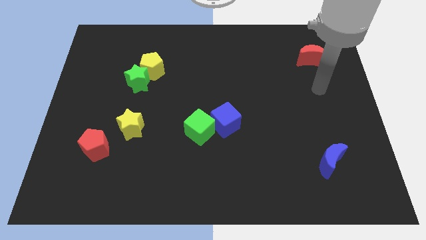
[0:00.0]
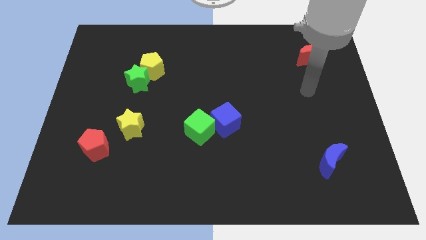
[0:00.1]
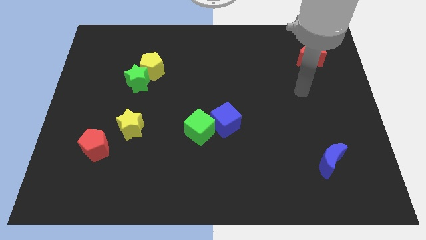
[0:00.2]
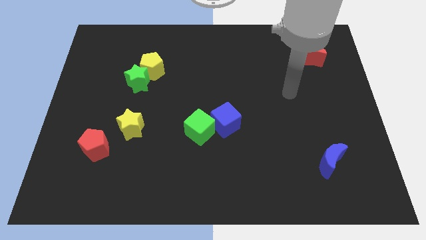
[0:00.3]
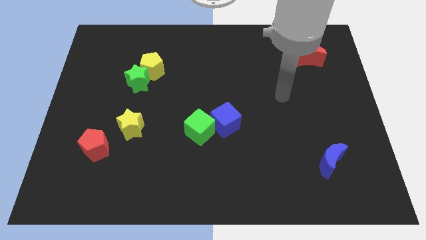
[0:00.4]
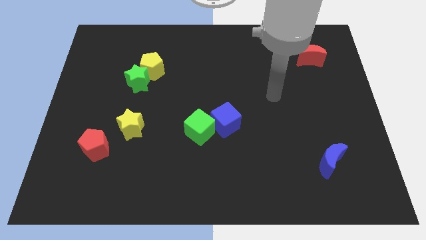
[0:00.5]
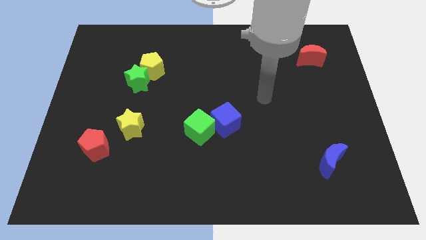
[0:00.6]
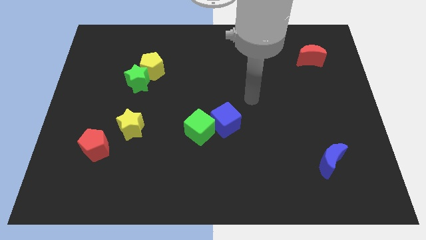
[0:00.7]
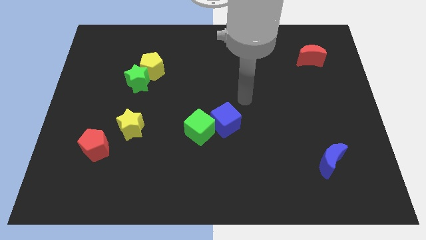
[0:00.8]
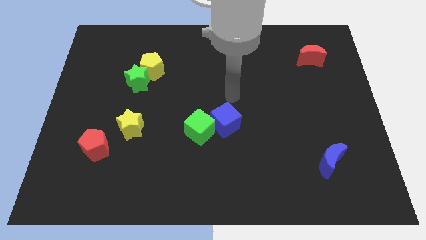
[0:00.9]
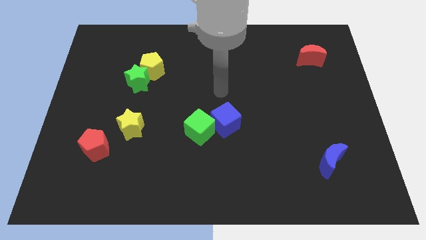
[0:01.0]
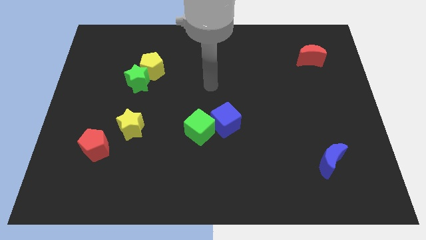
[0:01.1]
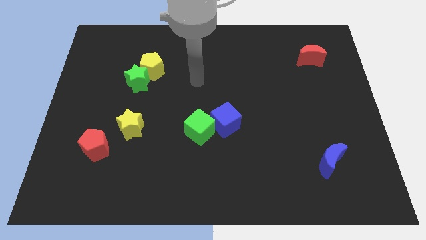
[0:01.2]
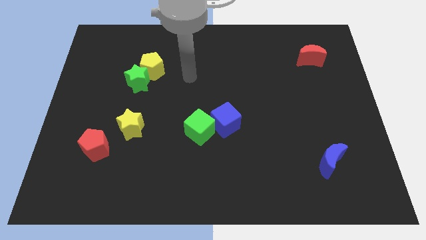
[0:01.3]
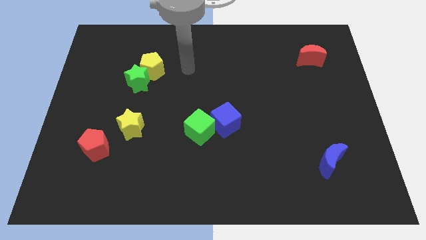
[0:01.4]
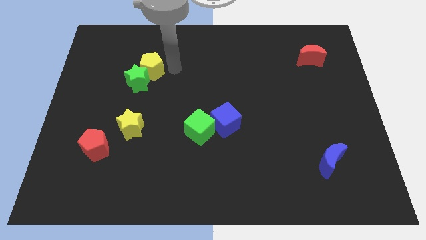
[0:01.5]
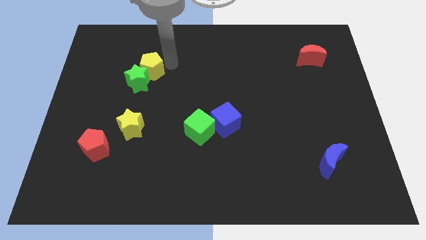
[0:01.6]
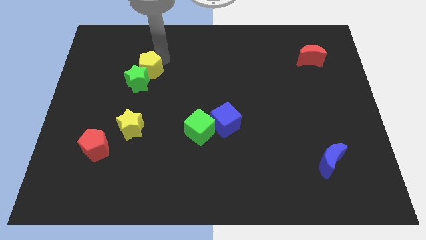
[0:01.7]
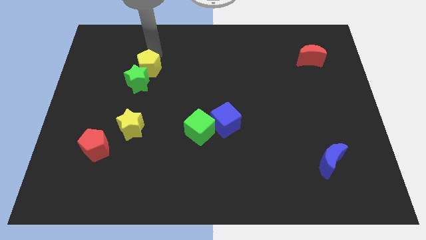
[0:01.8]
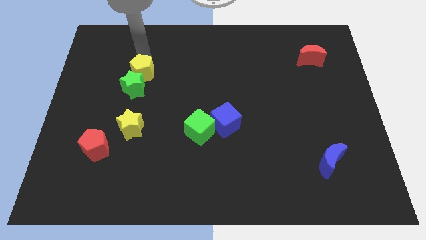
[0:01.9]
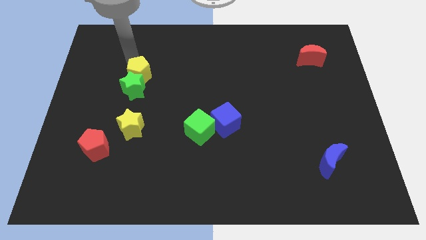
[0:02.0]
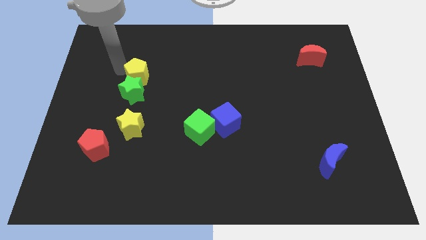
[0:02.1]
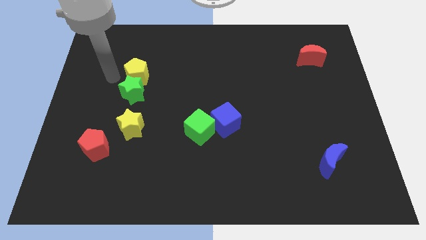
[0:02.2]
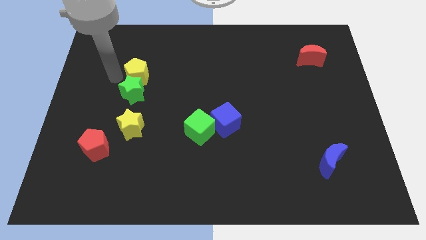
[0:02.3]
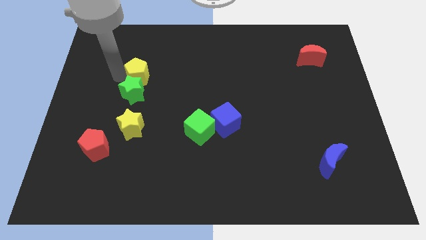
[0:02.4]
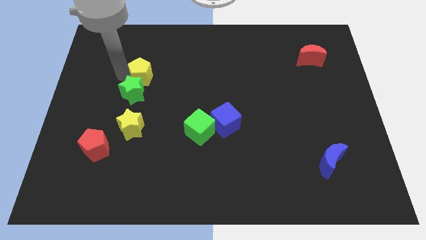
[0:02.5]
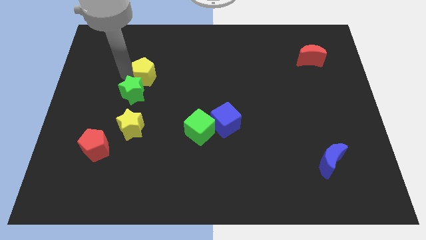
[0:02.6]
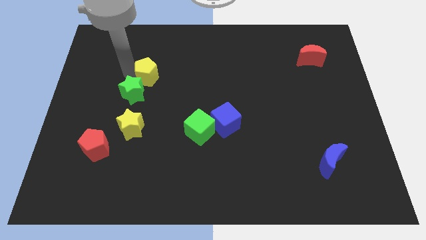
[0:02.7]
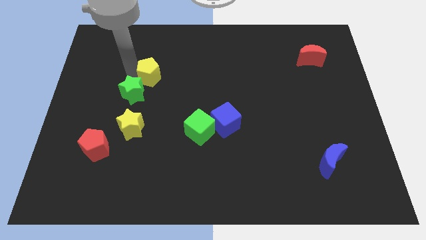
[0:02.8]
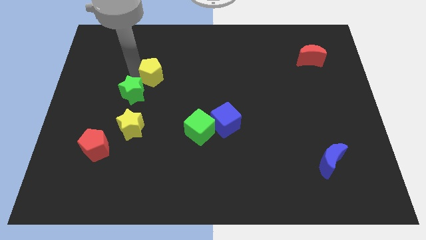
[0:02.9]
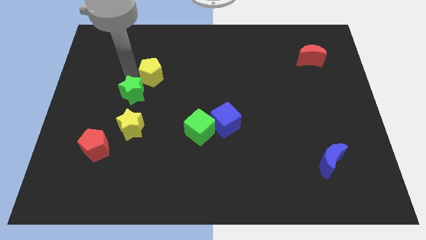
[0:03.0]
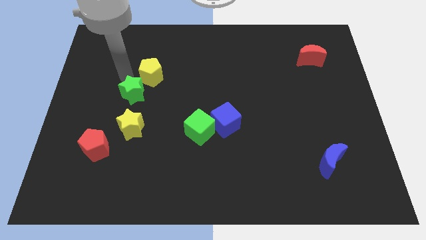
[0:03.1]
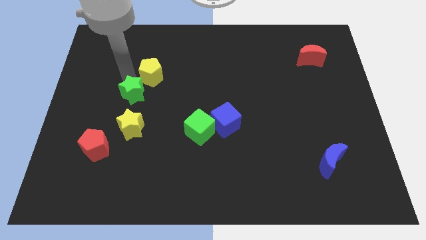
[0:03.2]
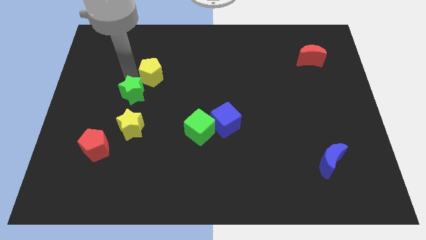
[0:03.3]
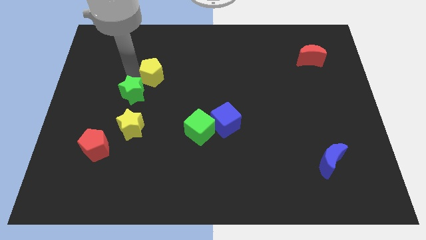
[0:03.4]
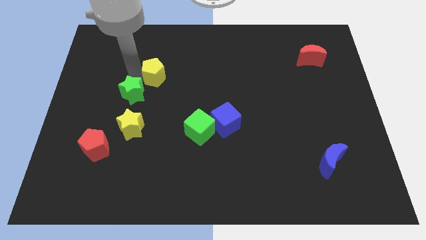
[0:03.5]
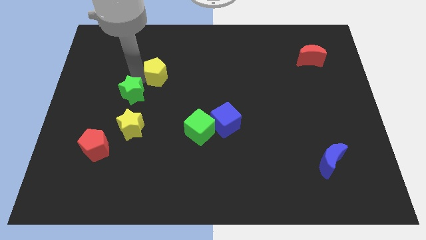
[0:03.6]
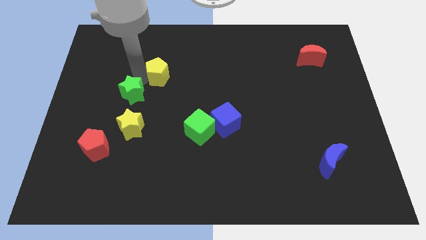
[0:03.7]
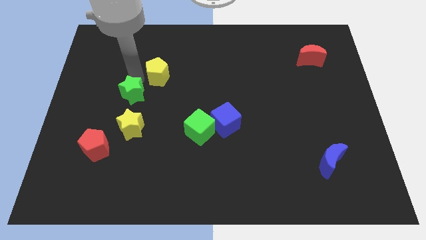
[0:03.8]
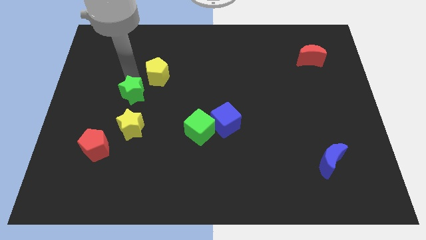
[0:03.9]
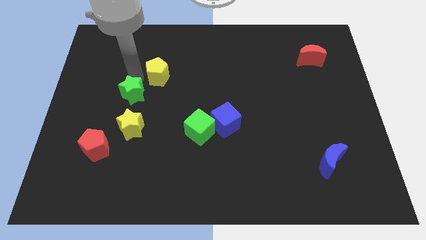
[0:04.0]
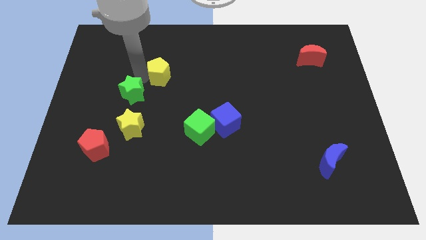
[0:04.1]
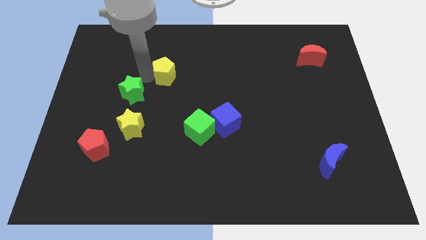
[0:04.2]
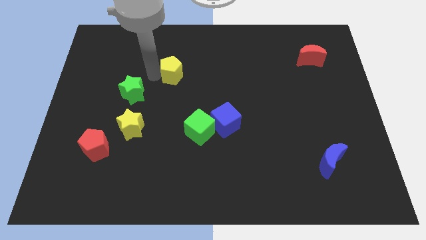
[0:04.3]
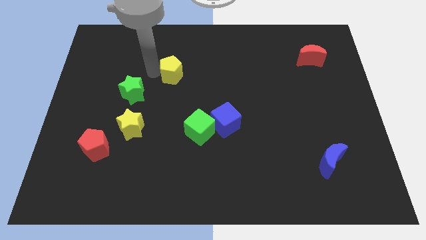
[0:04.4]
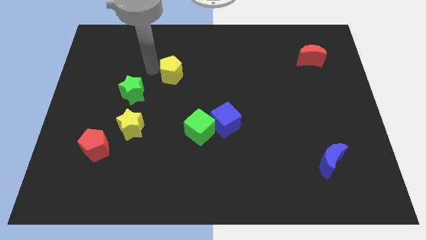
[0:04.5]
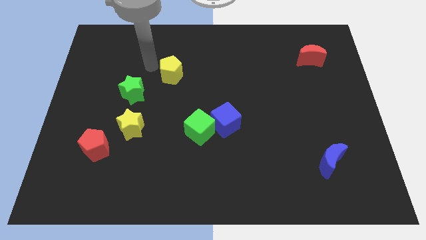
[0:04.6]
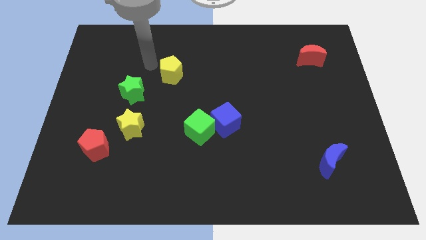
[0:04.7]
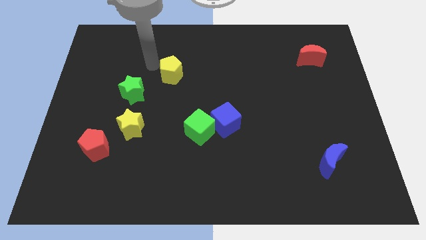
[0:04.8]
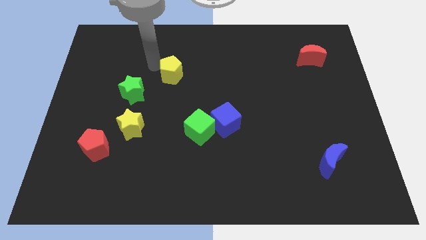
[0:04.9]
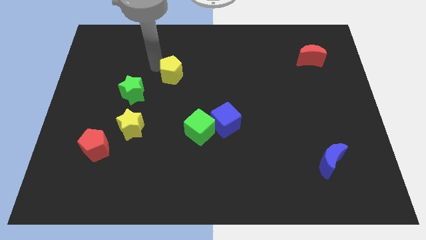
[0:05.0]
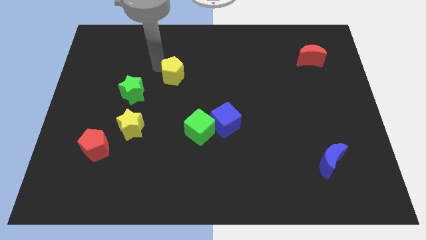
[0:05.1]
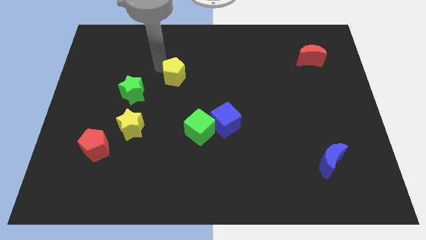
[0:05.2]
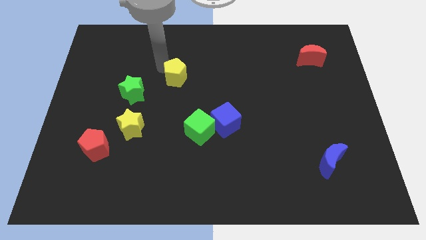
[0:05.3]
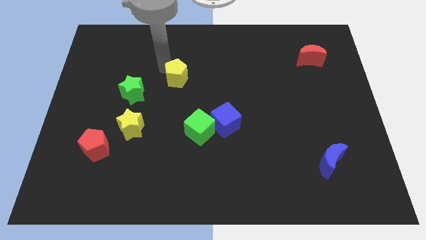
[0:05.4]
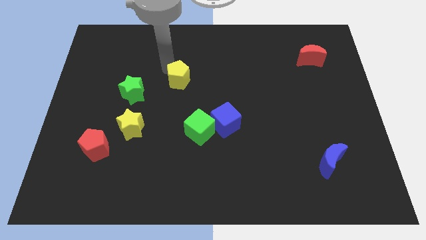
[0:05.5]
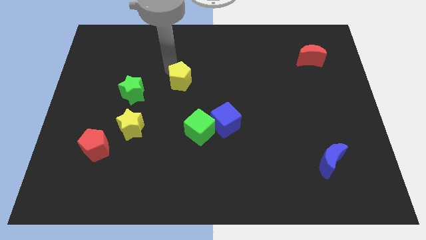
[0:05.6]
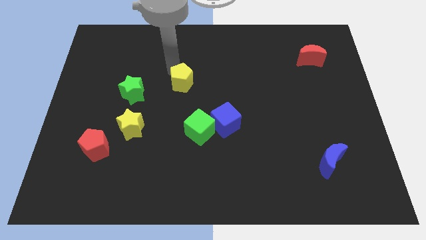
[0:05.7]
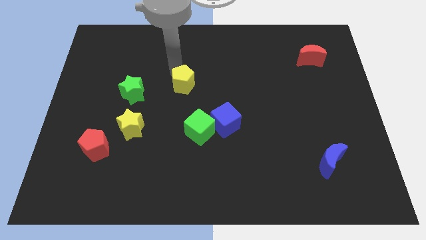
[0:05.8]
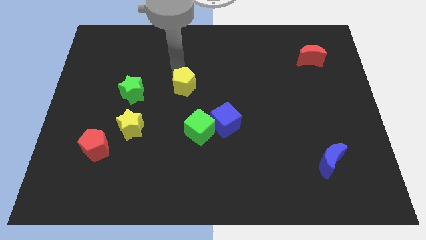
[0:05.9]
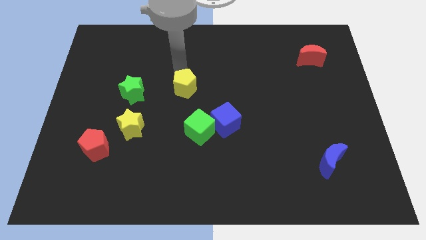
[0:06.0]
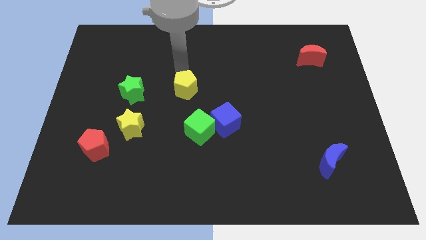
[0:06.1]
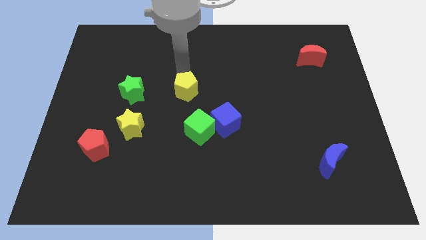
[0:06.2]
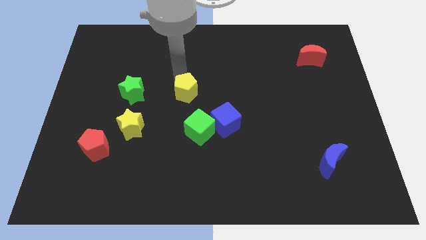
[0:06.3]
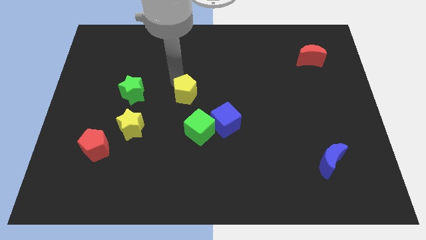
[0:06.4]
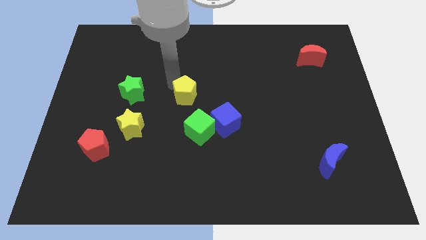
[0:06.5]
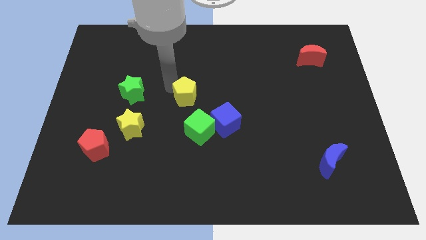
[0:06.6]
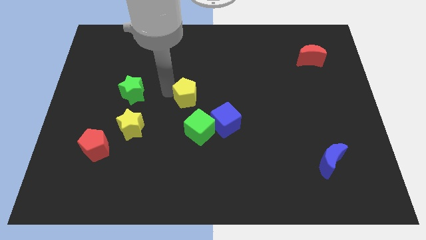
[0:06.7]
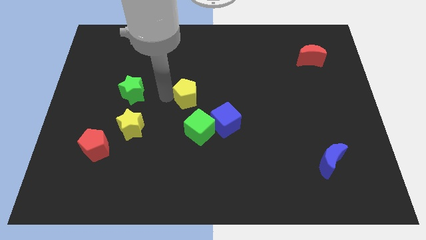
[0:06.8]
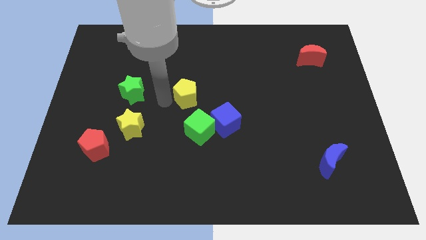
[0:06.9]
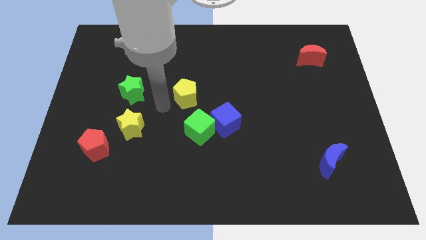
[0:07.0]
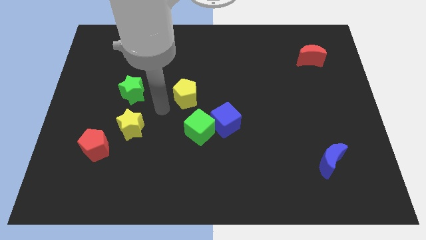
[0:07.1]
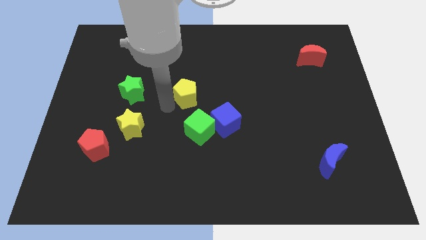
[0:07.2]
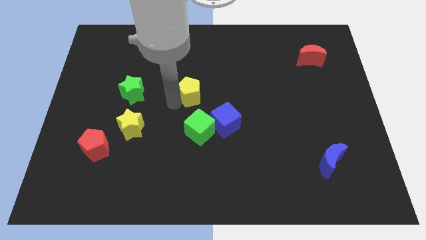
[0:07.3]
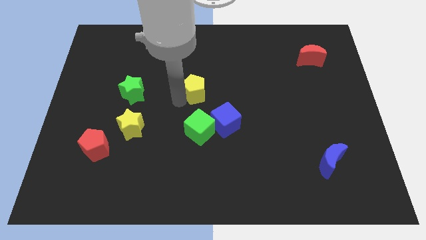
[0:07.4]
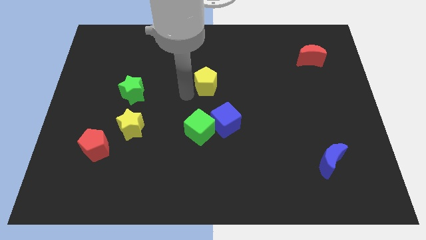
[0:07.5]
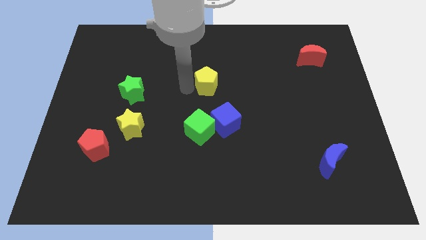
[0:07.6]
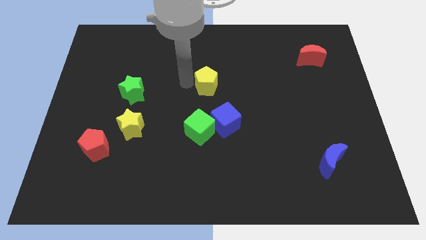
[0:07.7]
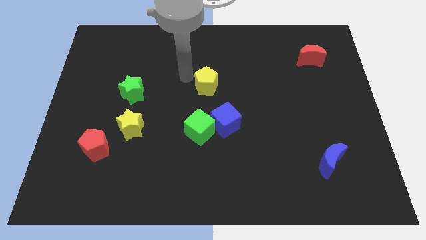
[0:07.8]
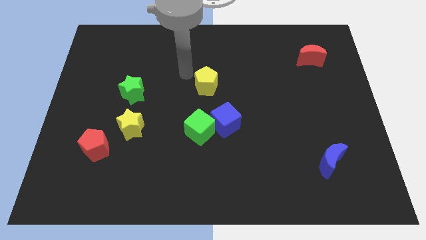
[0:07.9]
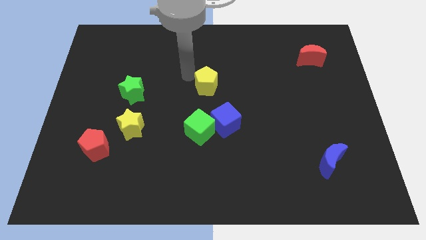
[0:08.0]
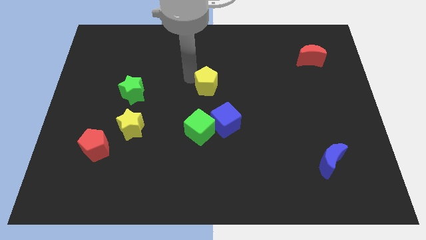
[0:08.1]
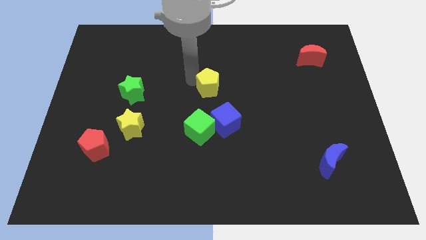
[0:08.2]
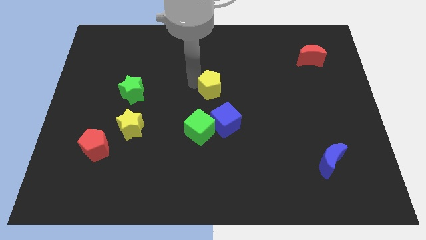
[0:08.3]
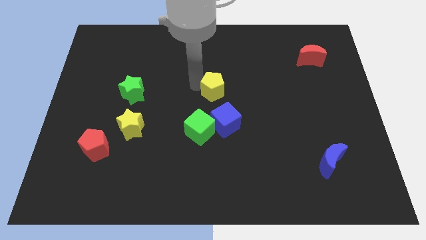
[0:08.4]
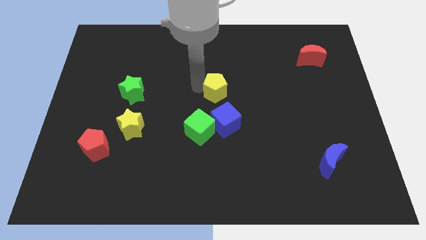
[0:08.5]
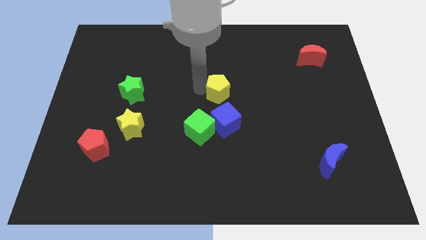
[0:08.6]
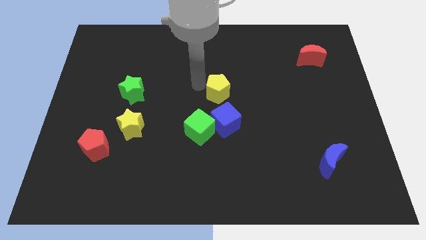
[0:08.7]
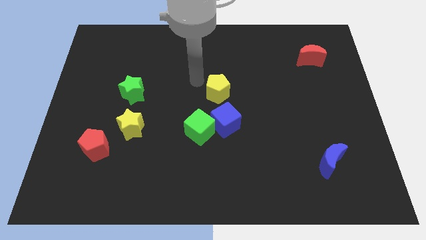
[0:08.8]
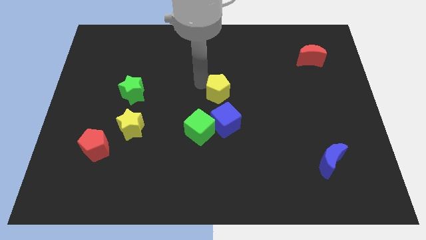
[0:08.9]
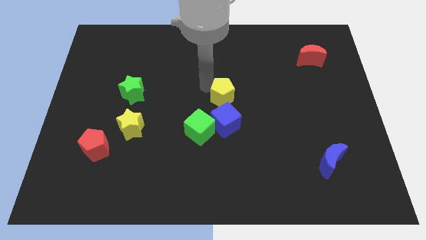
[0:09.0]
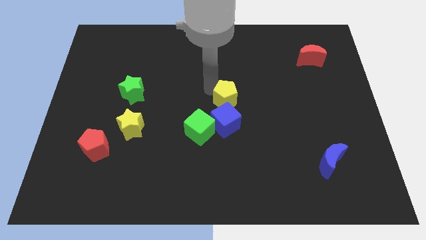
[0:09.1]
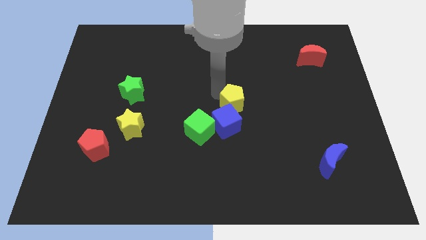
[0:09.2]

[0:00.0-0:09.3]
slide the yellow pentagon diagonally down and right
